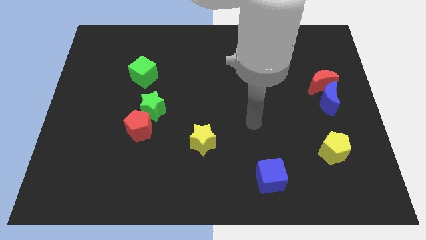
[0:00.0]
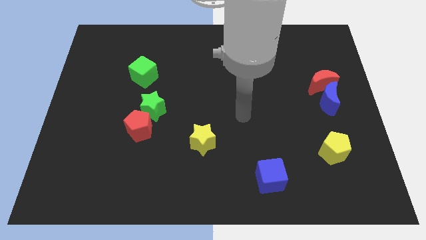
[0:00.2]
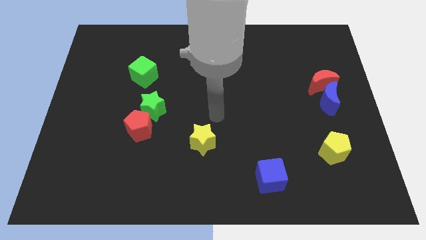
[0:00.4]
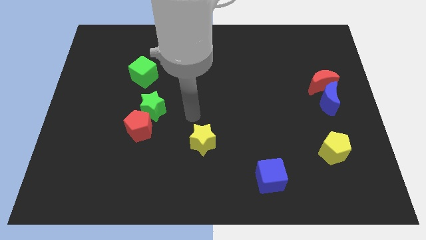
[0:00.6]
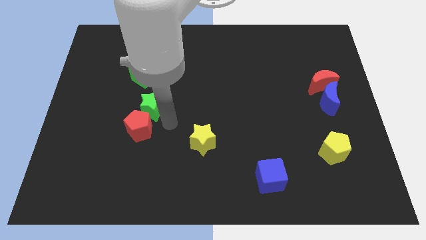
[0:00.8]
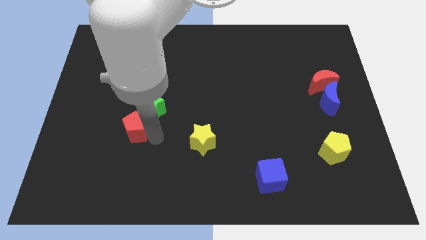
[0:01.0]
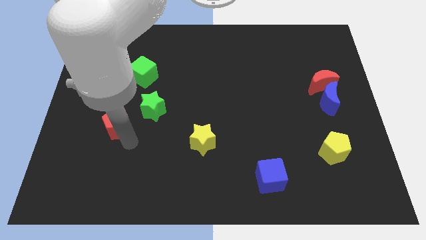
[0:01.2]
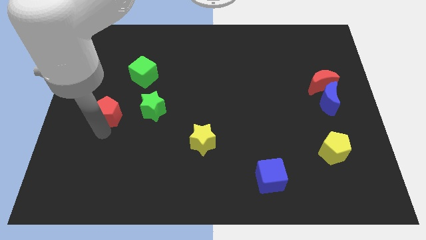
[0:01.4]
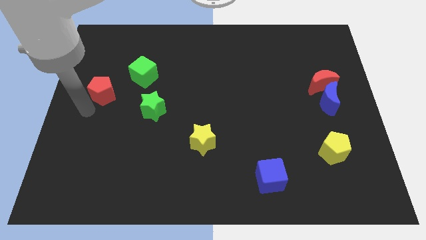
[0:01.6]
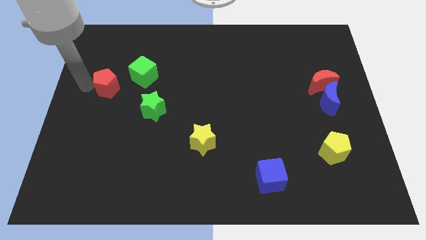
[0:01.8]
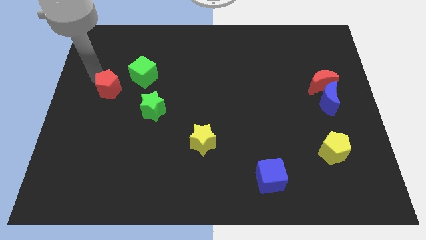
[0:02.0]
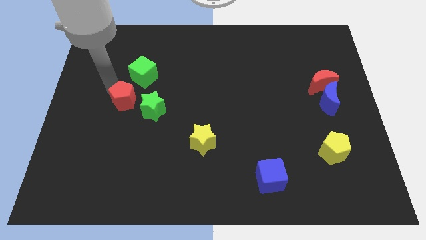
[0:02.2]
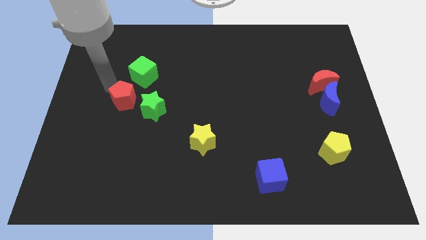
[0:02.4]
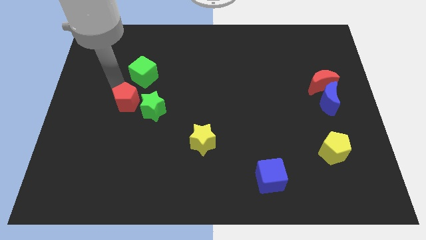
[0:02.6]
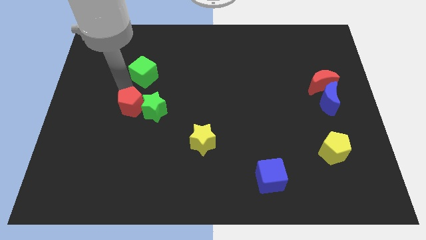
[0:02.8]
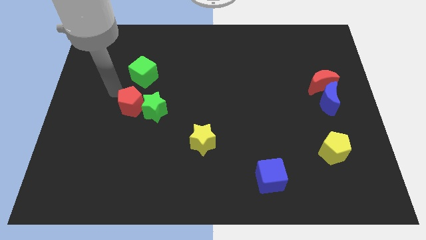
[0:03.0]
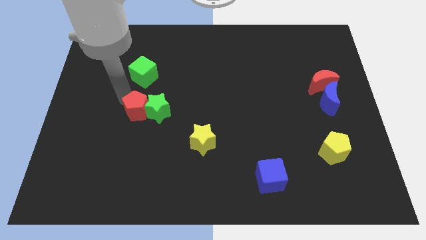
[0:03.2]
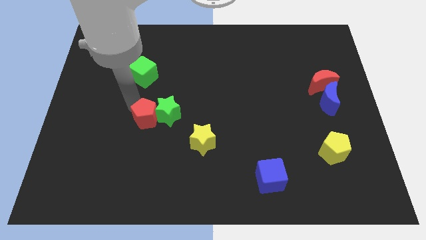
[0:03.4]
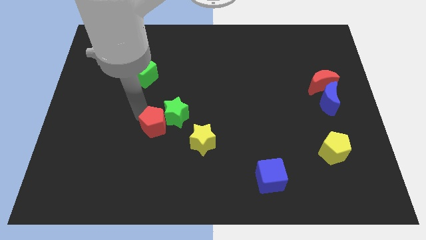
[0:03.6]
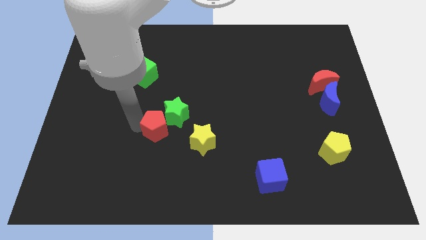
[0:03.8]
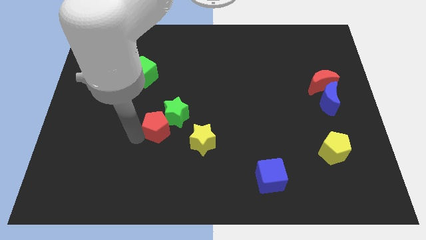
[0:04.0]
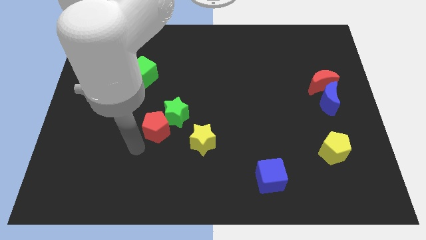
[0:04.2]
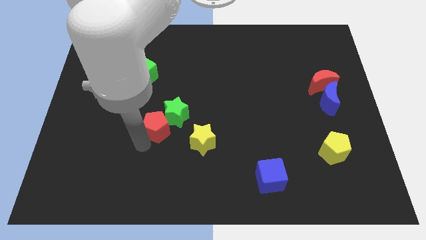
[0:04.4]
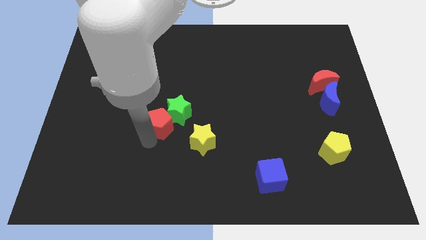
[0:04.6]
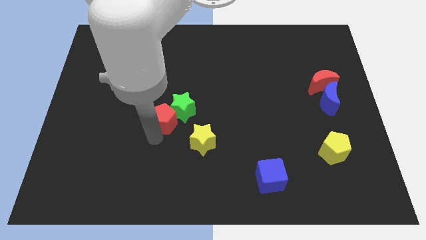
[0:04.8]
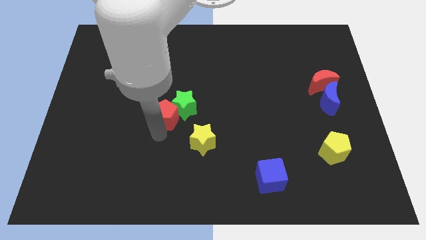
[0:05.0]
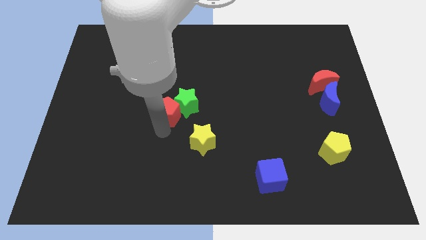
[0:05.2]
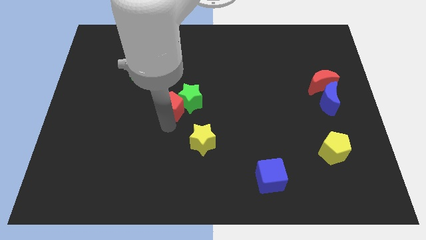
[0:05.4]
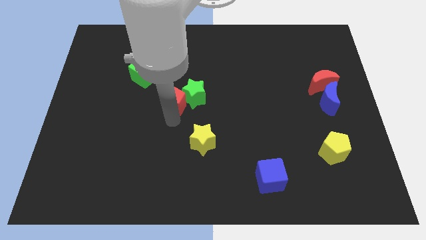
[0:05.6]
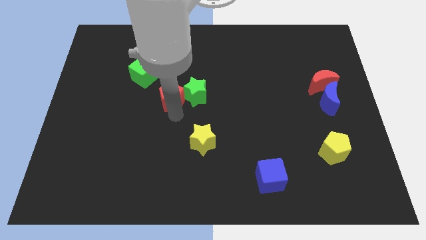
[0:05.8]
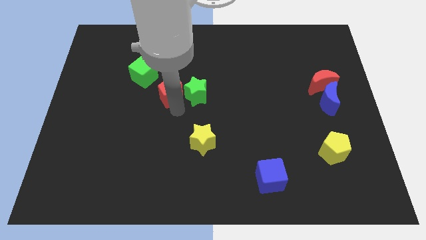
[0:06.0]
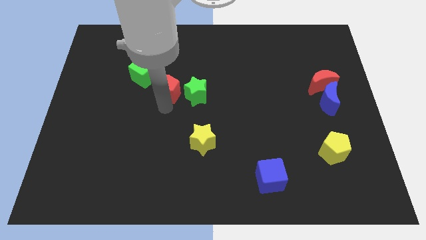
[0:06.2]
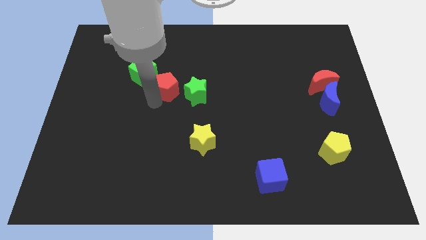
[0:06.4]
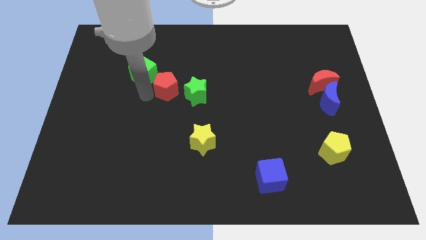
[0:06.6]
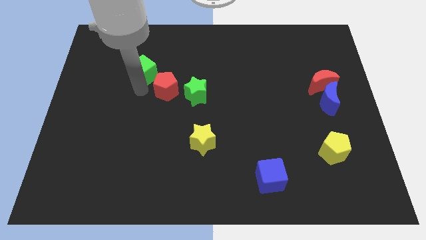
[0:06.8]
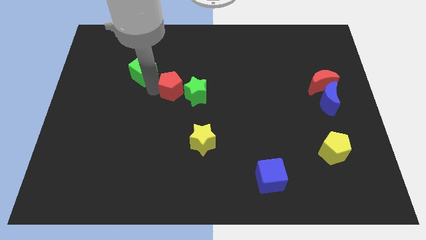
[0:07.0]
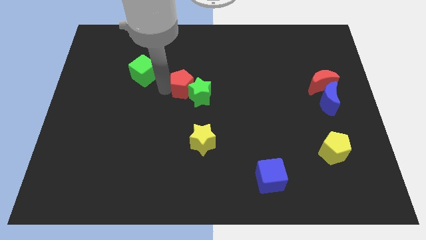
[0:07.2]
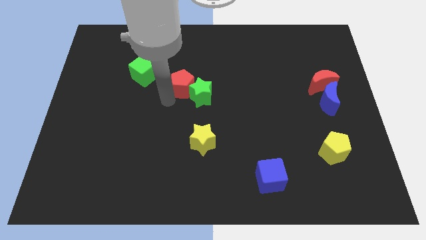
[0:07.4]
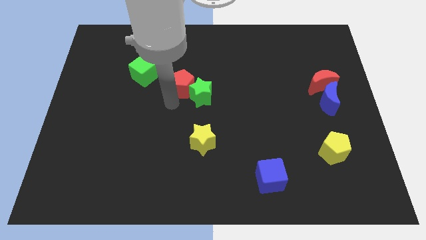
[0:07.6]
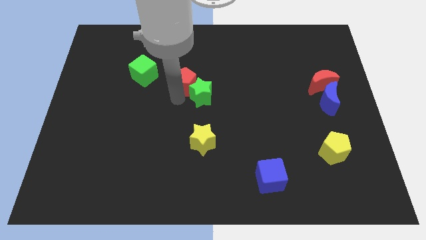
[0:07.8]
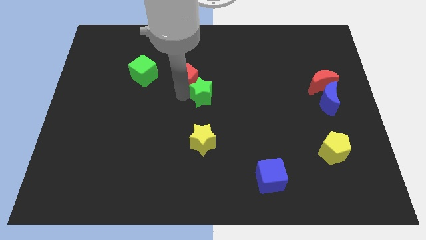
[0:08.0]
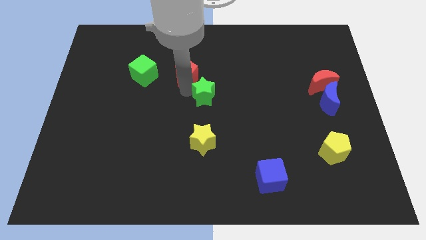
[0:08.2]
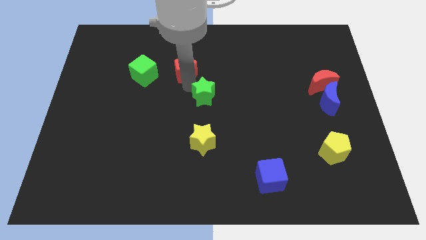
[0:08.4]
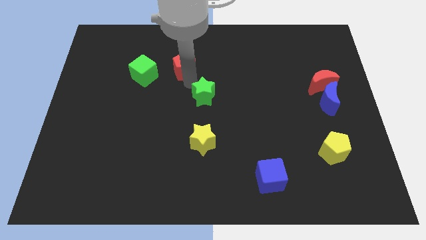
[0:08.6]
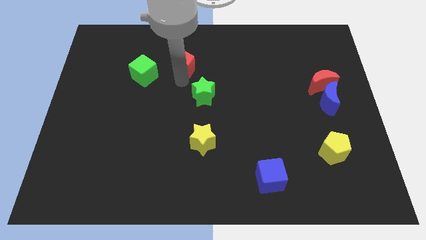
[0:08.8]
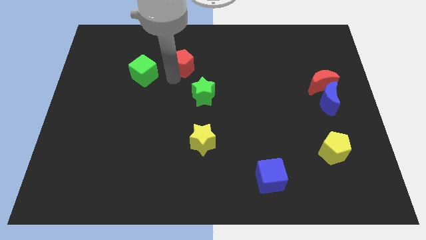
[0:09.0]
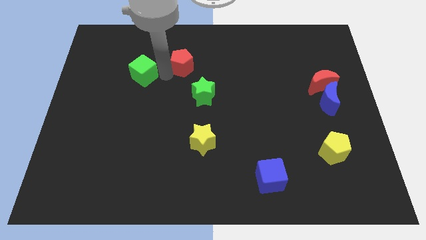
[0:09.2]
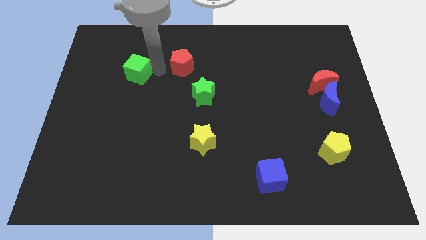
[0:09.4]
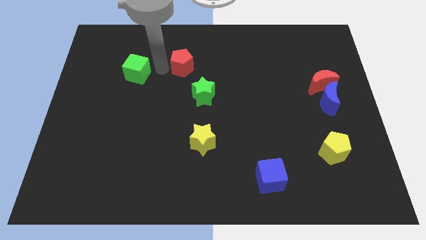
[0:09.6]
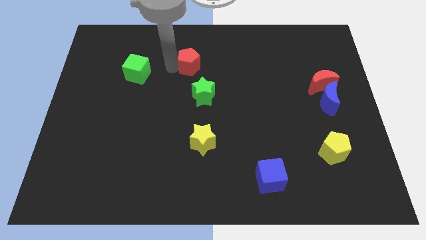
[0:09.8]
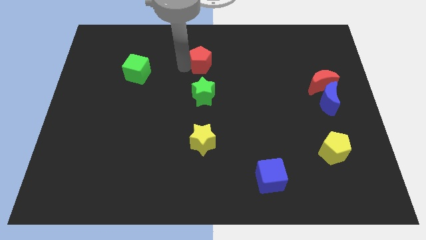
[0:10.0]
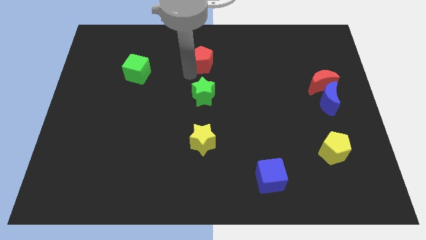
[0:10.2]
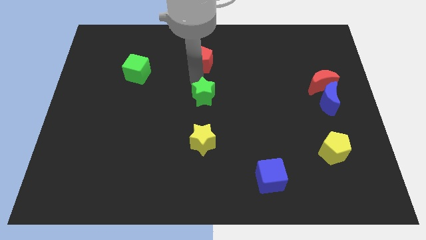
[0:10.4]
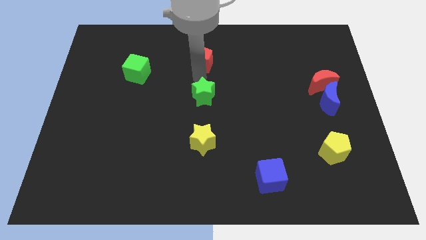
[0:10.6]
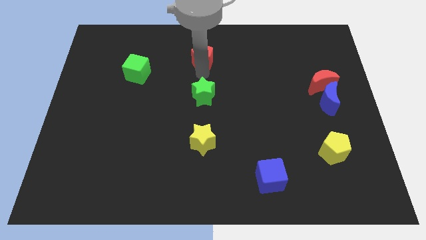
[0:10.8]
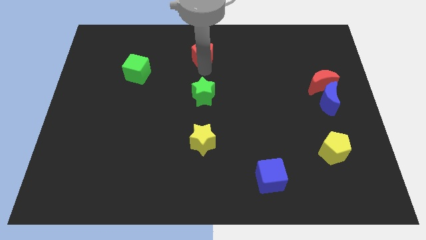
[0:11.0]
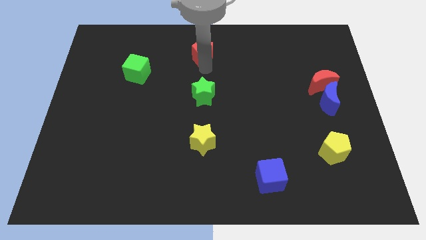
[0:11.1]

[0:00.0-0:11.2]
put the red pentagon to the towards your base

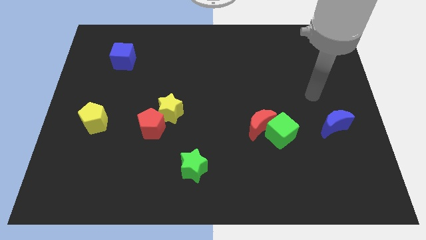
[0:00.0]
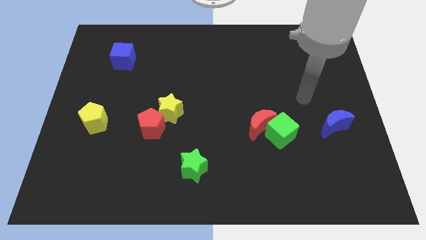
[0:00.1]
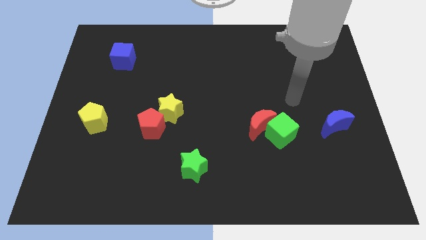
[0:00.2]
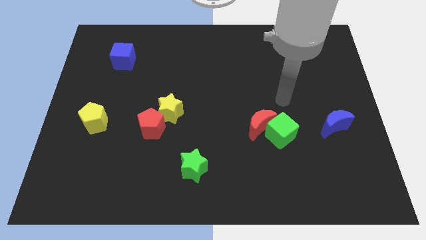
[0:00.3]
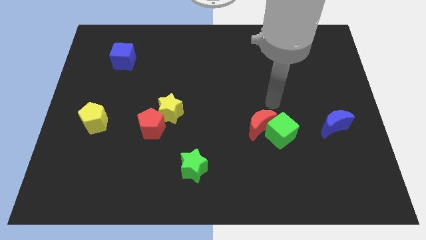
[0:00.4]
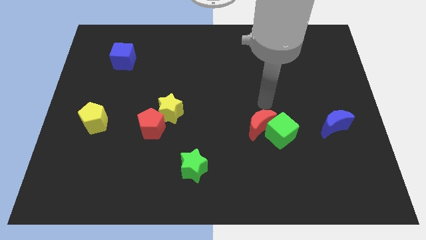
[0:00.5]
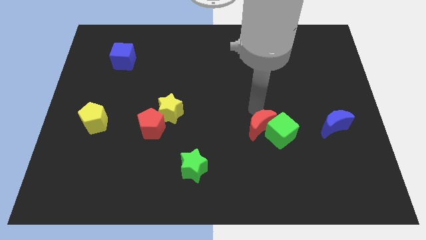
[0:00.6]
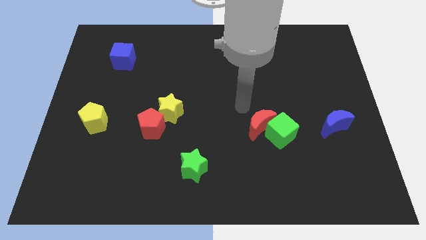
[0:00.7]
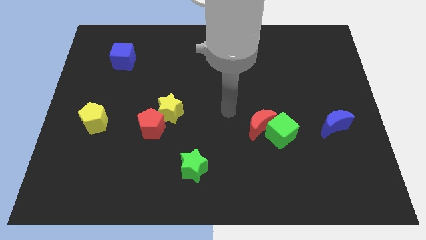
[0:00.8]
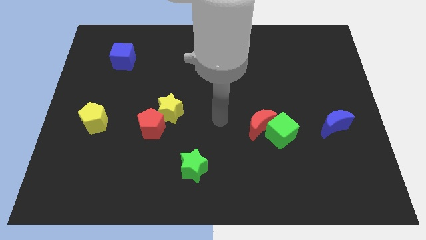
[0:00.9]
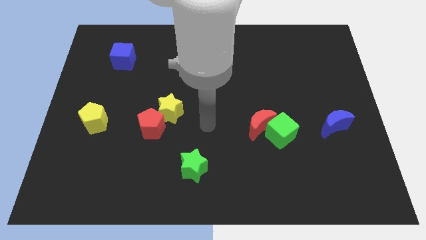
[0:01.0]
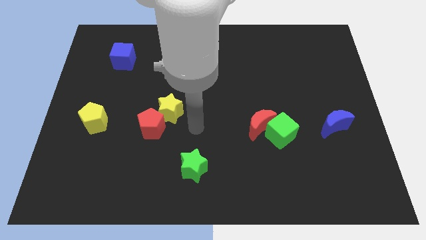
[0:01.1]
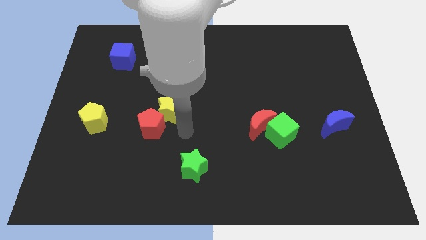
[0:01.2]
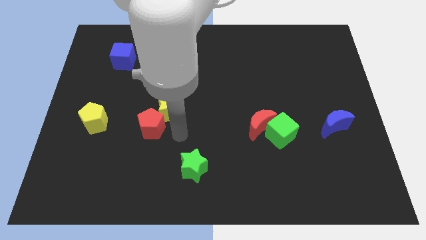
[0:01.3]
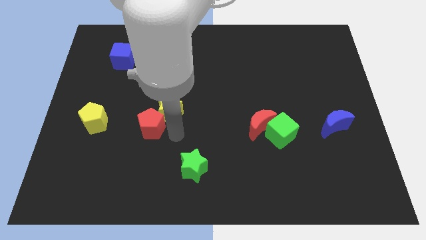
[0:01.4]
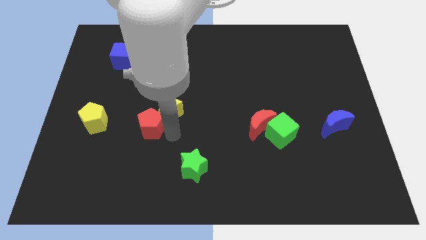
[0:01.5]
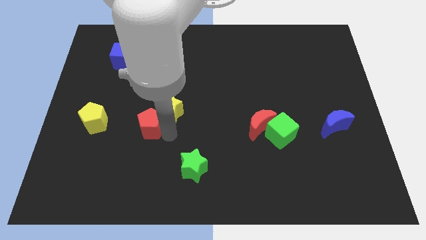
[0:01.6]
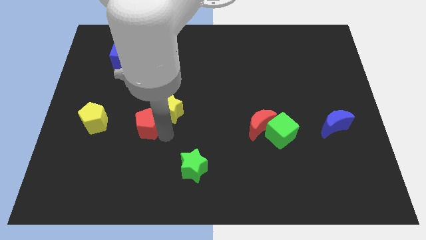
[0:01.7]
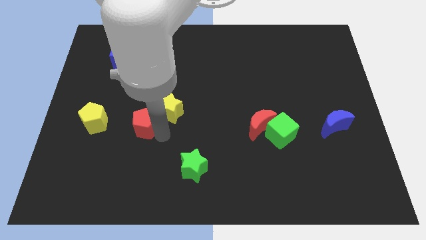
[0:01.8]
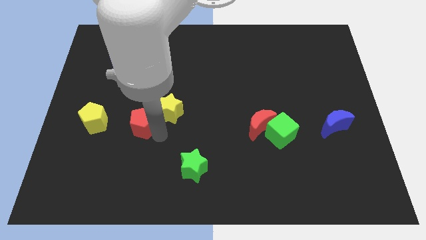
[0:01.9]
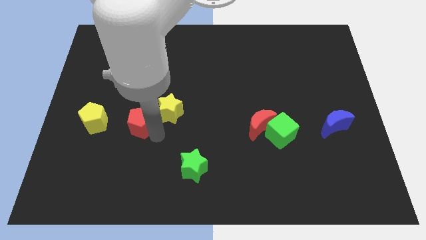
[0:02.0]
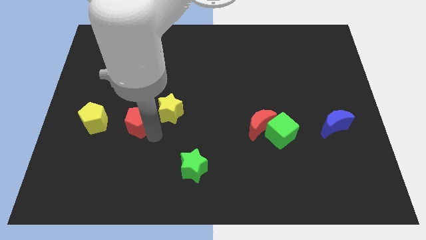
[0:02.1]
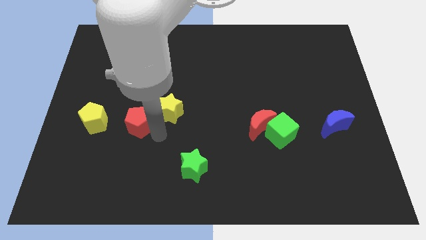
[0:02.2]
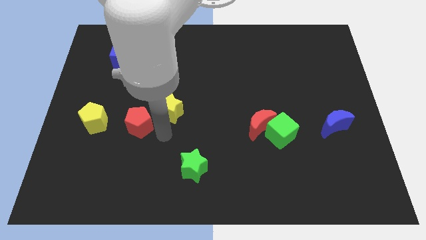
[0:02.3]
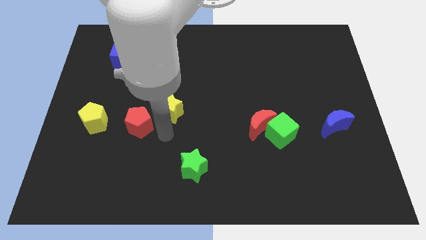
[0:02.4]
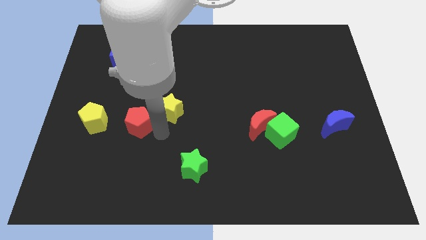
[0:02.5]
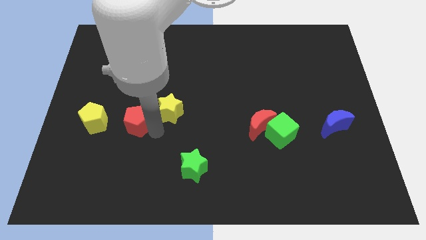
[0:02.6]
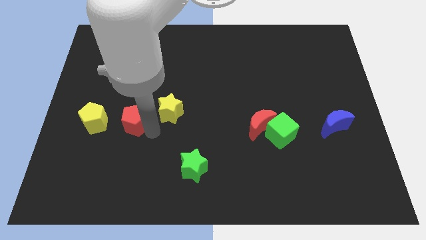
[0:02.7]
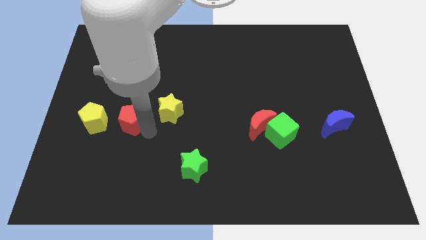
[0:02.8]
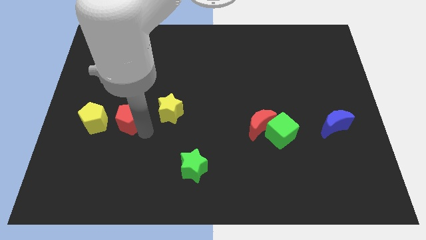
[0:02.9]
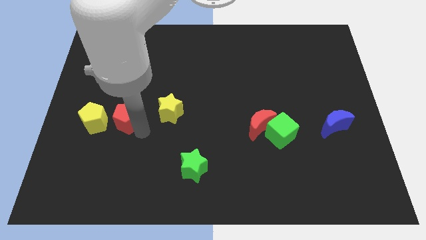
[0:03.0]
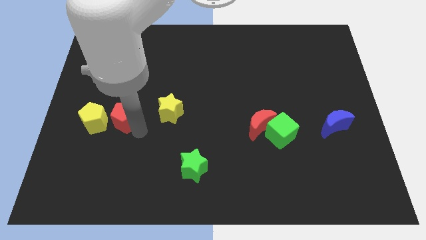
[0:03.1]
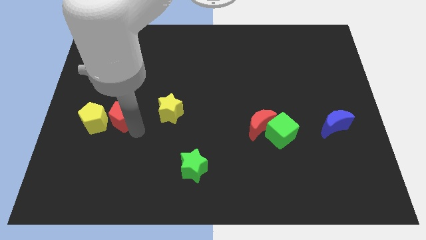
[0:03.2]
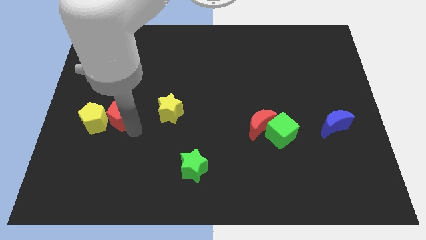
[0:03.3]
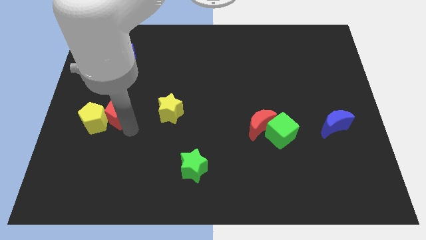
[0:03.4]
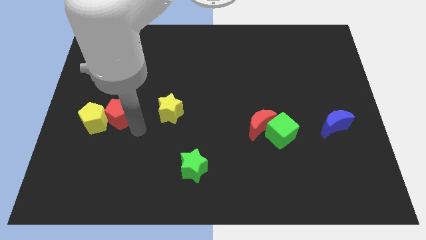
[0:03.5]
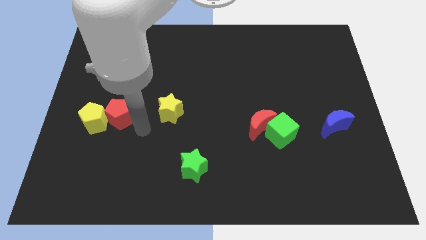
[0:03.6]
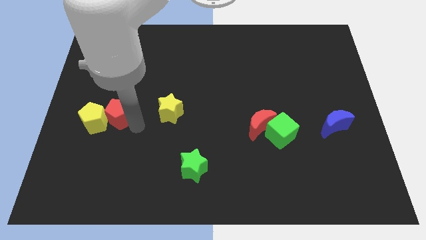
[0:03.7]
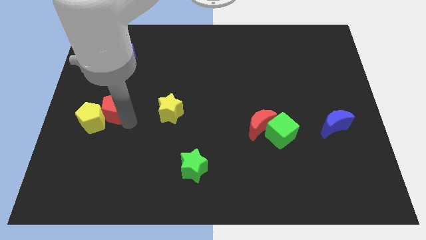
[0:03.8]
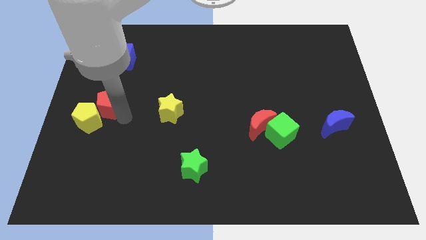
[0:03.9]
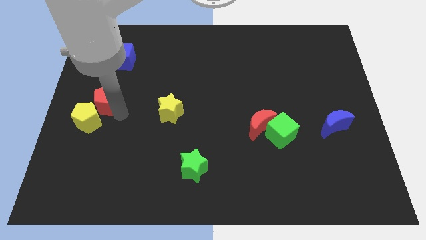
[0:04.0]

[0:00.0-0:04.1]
slide the red pentagon to the left side of the board
